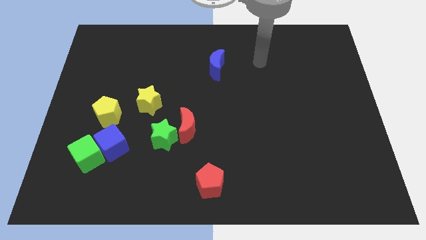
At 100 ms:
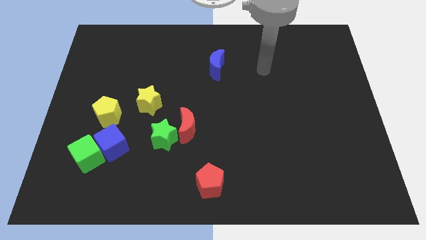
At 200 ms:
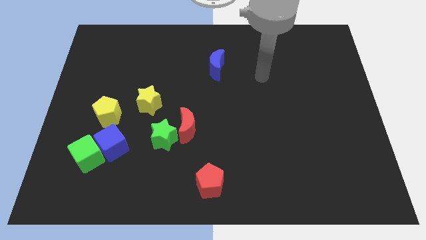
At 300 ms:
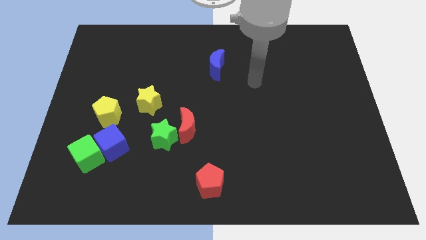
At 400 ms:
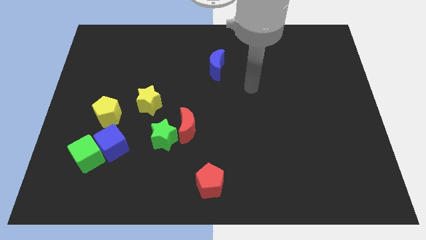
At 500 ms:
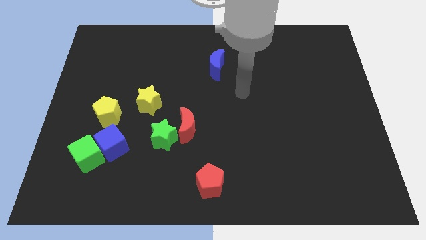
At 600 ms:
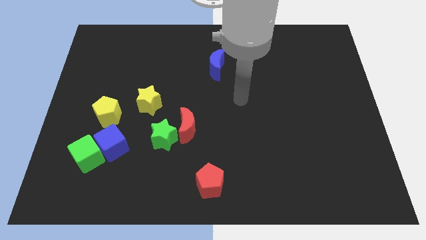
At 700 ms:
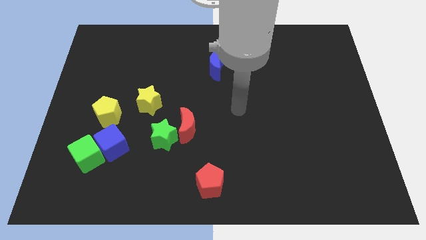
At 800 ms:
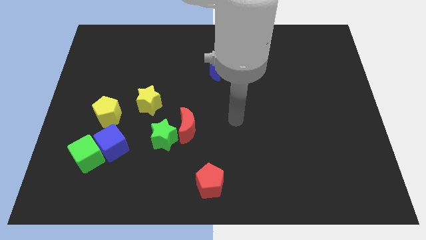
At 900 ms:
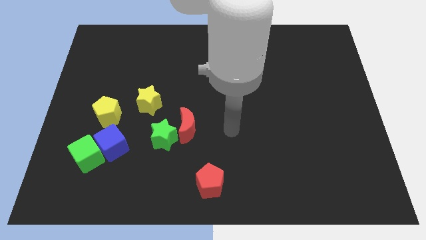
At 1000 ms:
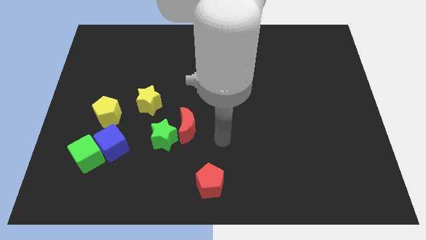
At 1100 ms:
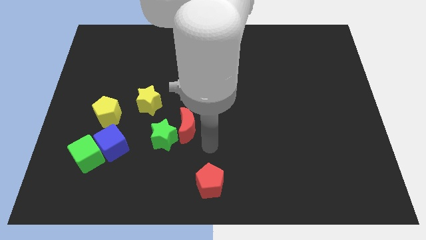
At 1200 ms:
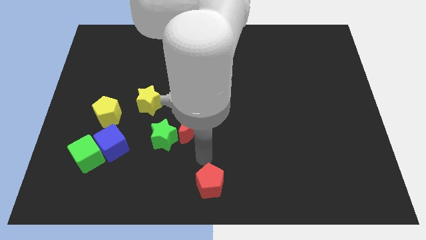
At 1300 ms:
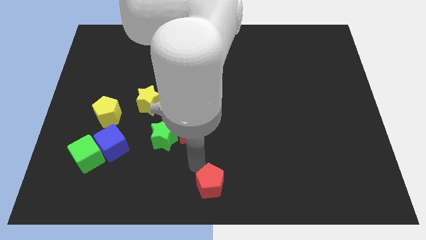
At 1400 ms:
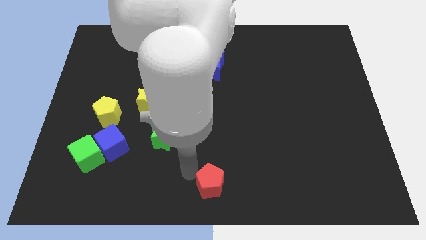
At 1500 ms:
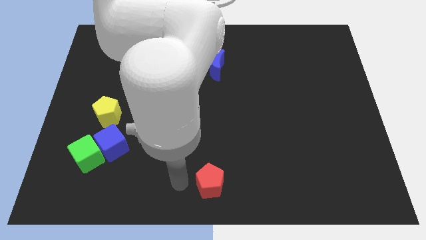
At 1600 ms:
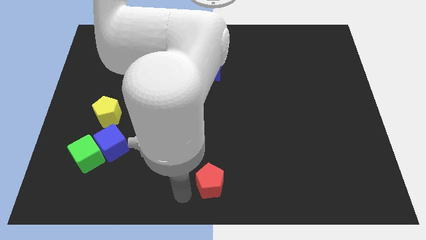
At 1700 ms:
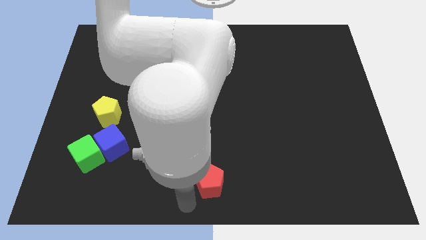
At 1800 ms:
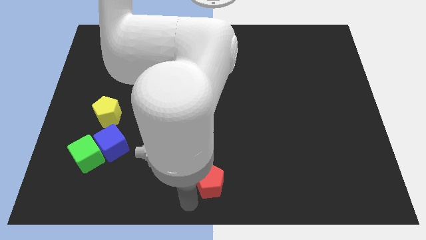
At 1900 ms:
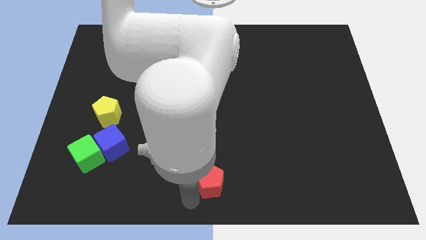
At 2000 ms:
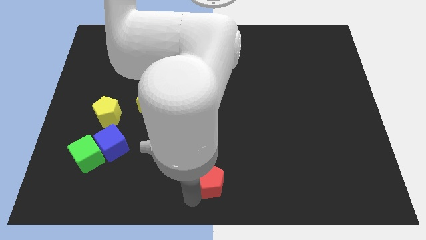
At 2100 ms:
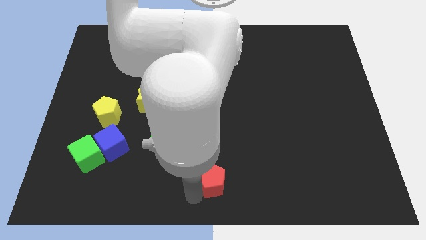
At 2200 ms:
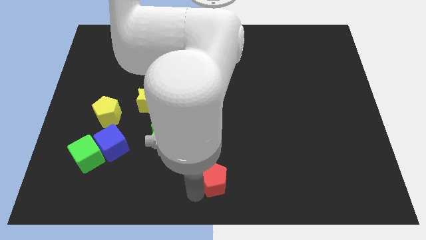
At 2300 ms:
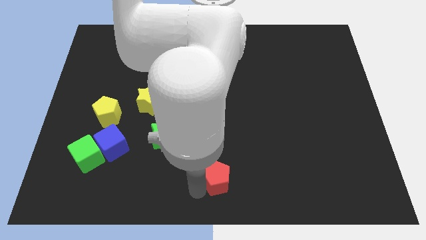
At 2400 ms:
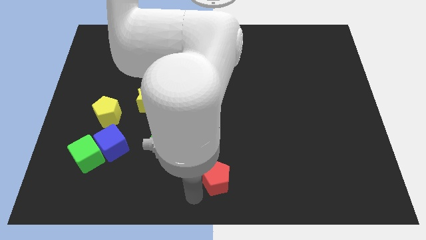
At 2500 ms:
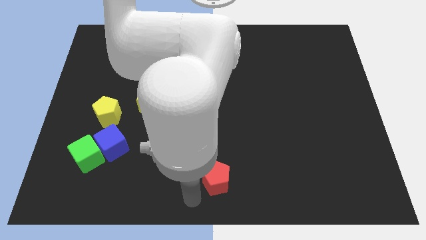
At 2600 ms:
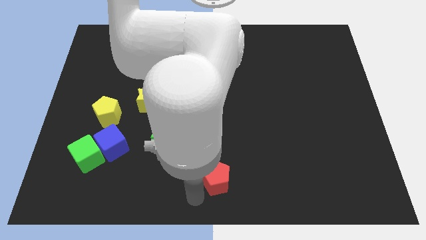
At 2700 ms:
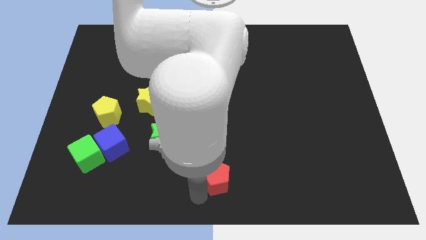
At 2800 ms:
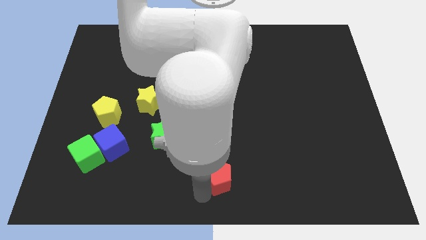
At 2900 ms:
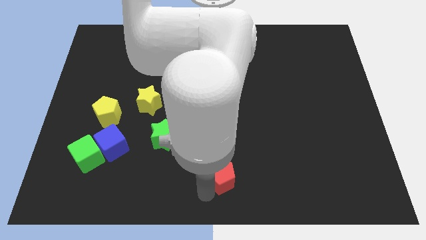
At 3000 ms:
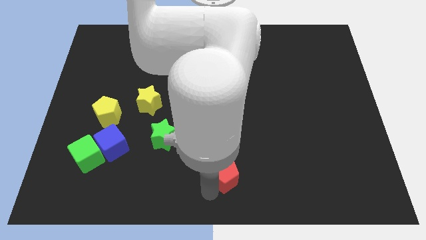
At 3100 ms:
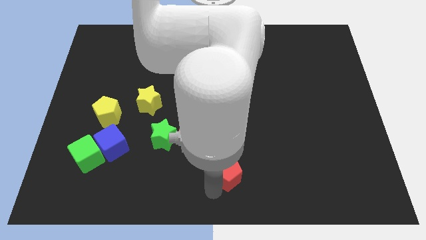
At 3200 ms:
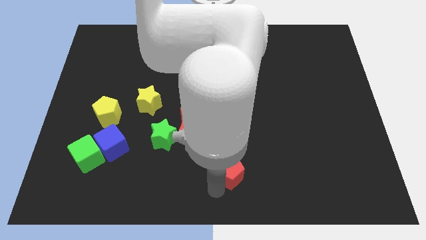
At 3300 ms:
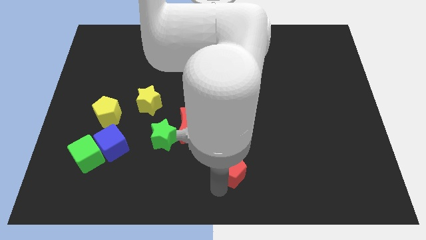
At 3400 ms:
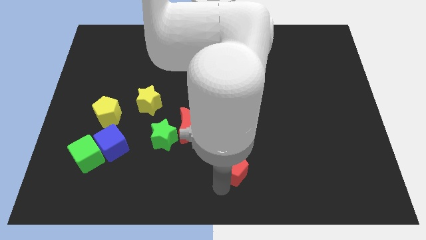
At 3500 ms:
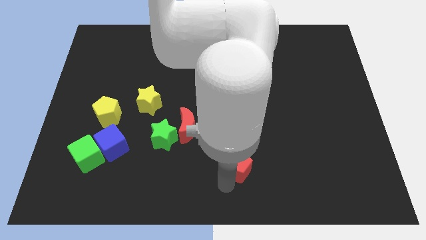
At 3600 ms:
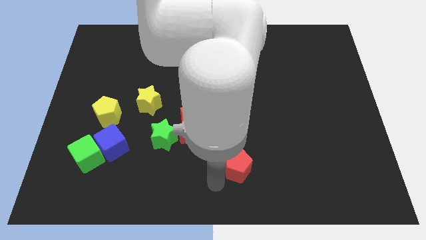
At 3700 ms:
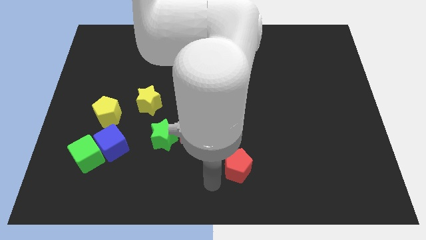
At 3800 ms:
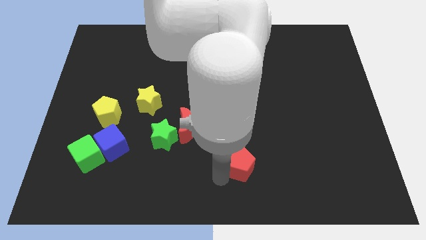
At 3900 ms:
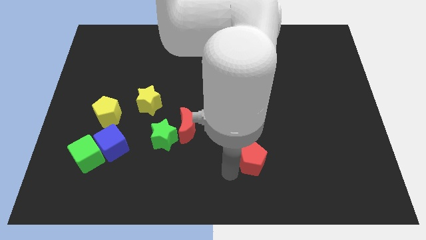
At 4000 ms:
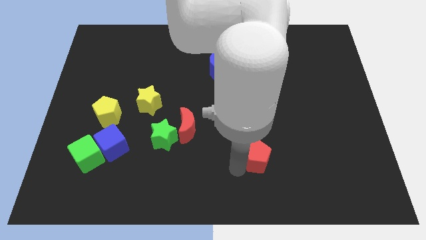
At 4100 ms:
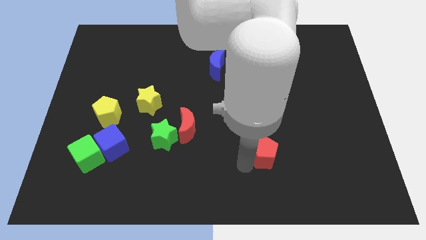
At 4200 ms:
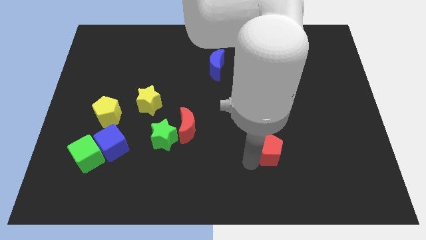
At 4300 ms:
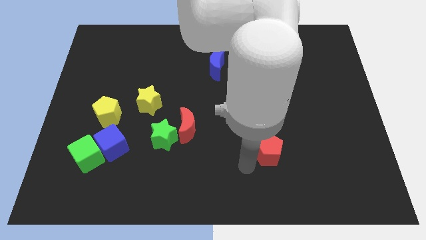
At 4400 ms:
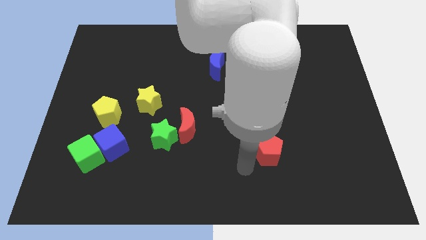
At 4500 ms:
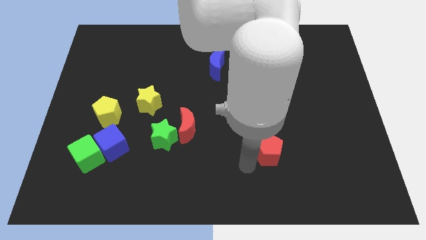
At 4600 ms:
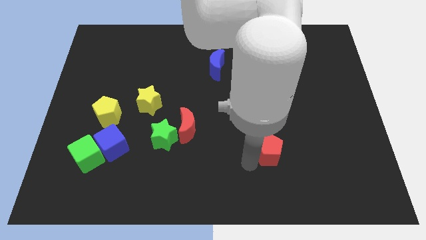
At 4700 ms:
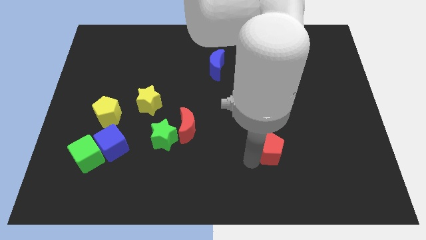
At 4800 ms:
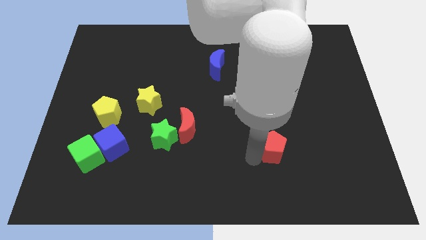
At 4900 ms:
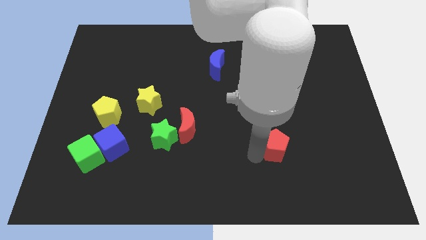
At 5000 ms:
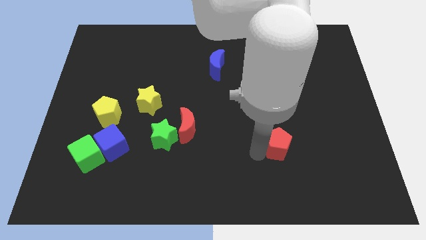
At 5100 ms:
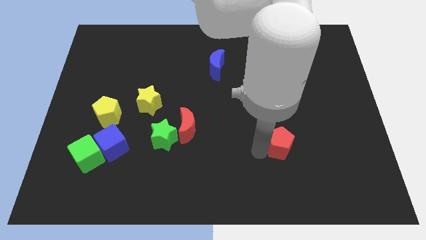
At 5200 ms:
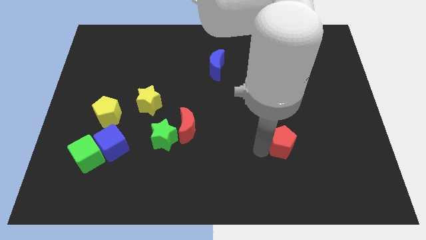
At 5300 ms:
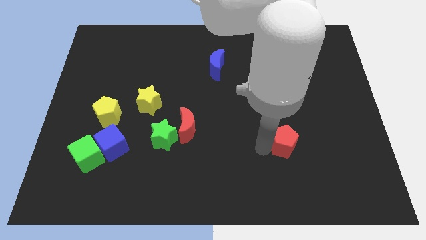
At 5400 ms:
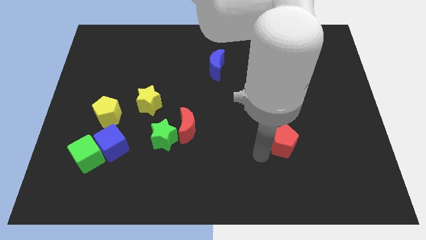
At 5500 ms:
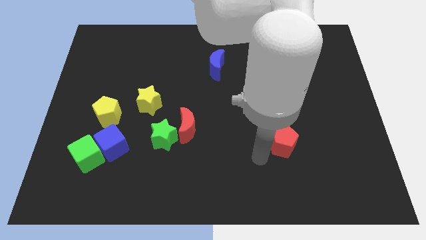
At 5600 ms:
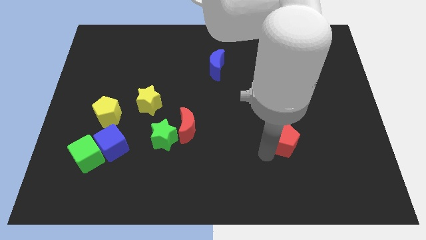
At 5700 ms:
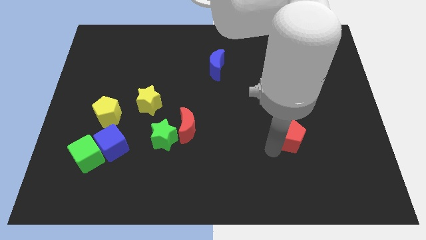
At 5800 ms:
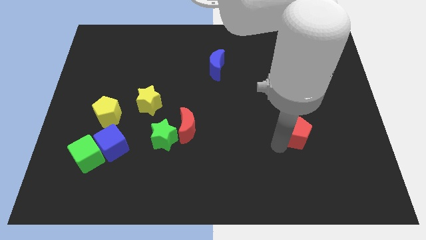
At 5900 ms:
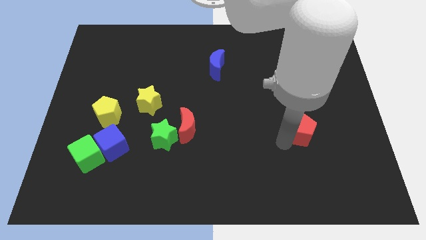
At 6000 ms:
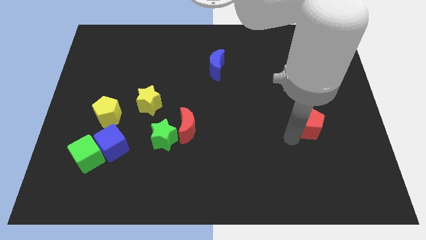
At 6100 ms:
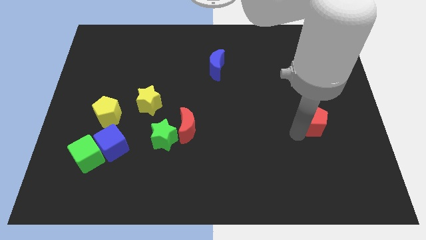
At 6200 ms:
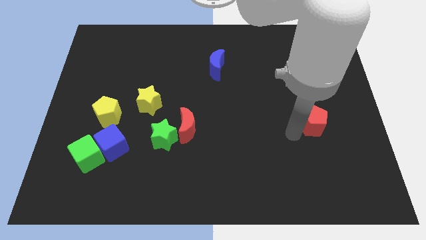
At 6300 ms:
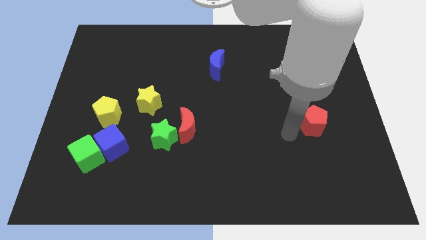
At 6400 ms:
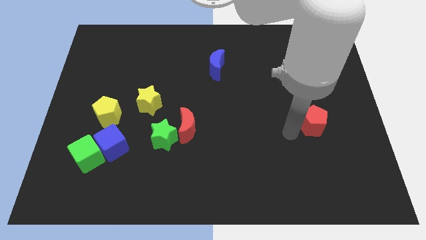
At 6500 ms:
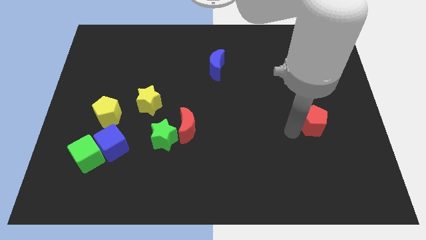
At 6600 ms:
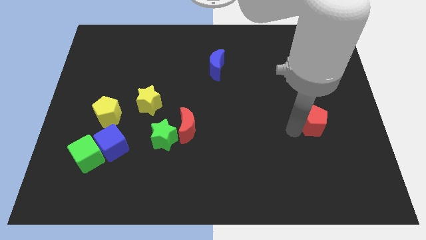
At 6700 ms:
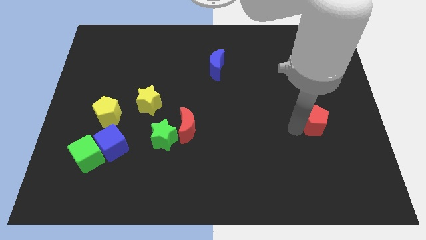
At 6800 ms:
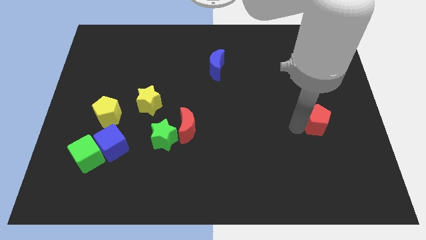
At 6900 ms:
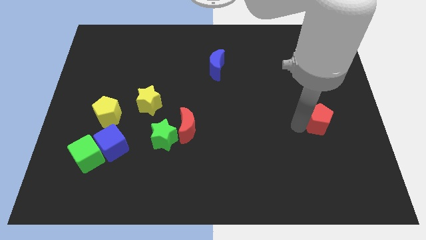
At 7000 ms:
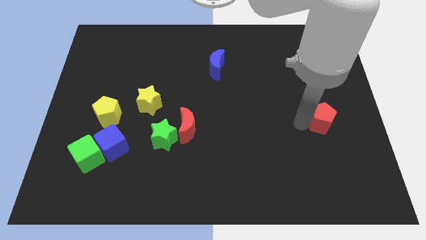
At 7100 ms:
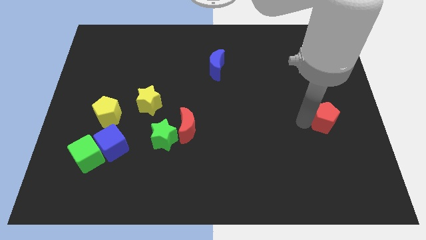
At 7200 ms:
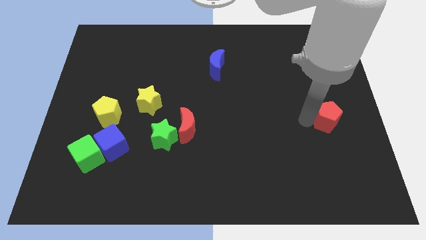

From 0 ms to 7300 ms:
slide the red pentagon to the center right
